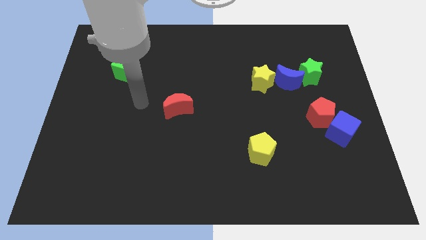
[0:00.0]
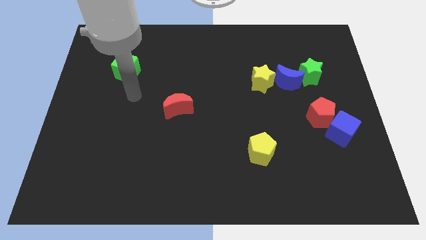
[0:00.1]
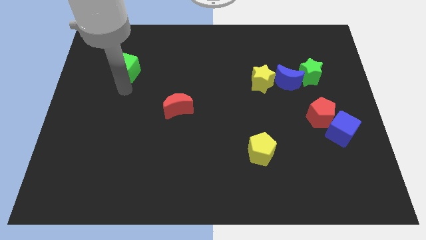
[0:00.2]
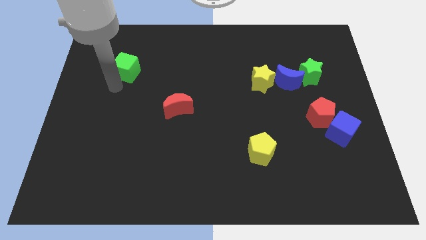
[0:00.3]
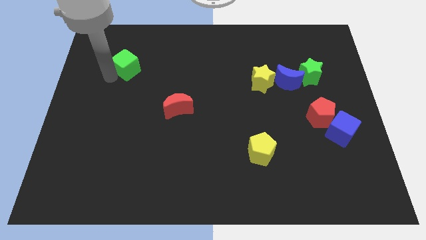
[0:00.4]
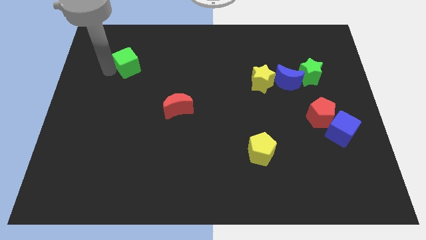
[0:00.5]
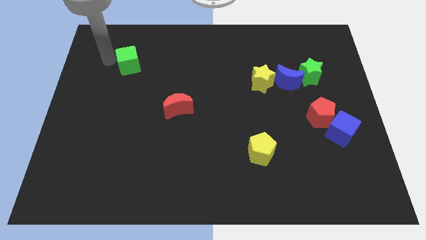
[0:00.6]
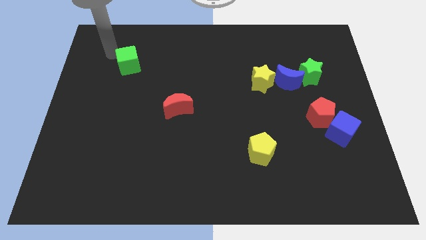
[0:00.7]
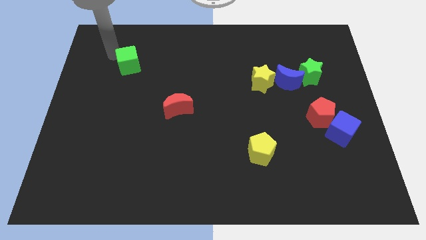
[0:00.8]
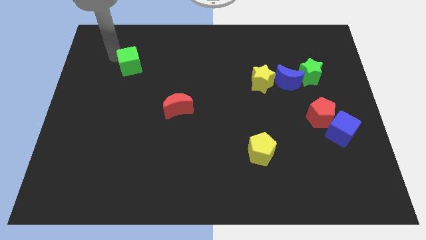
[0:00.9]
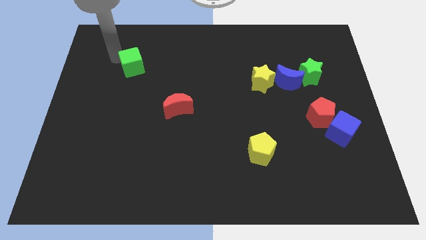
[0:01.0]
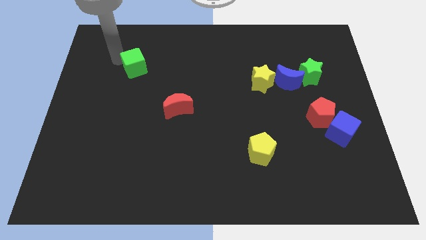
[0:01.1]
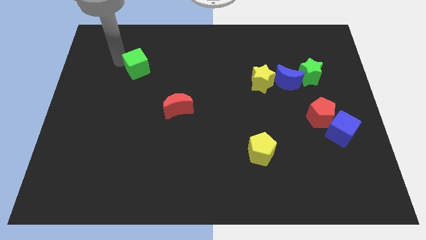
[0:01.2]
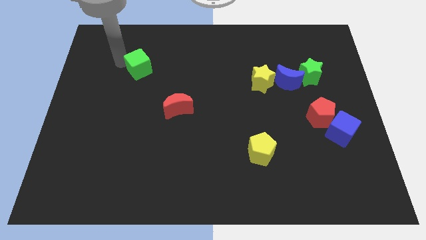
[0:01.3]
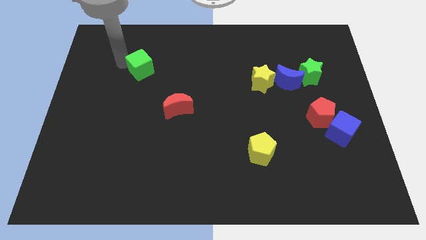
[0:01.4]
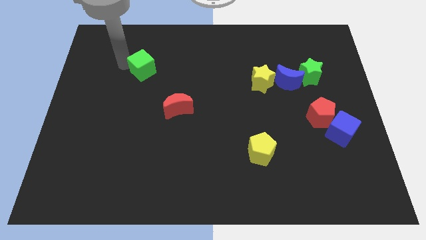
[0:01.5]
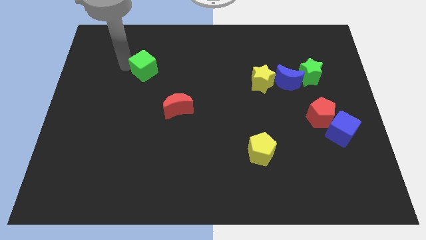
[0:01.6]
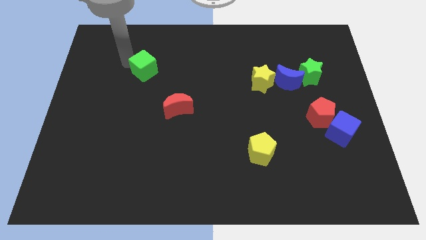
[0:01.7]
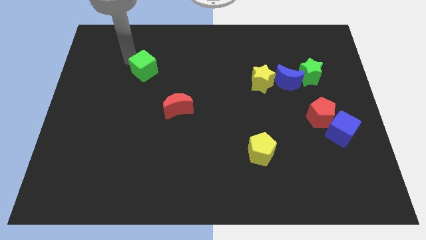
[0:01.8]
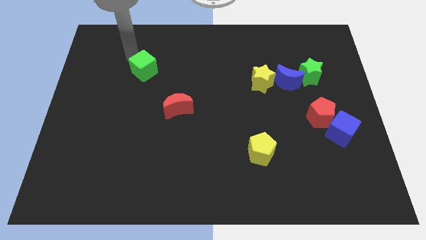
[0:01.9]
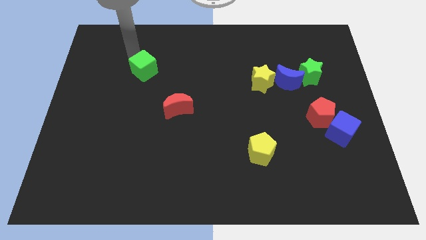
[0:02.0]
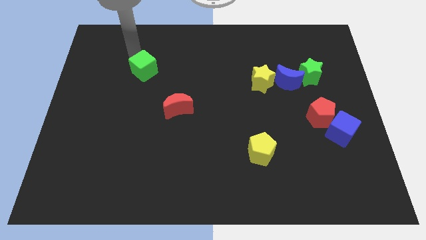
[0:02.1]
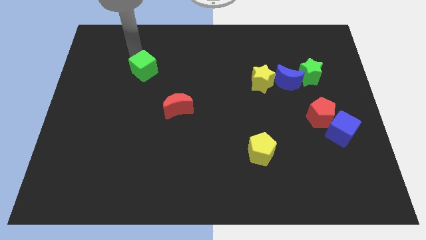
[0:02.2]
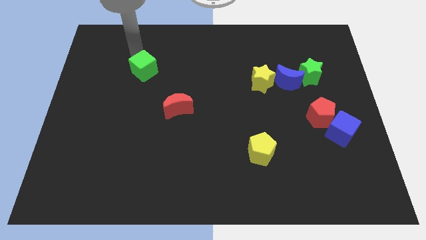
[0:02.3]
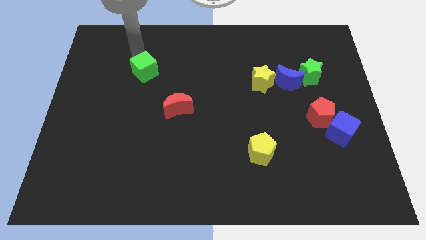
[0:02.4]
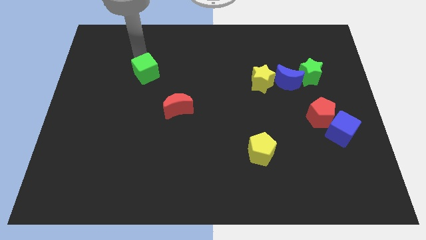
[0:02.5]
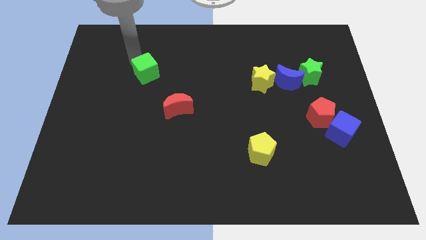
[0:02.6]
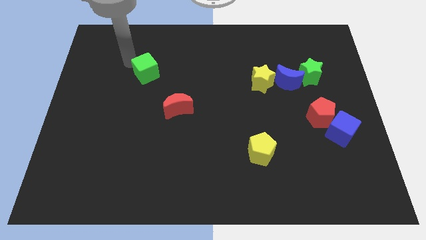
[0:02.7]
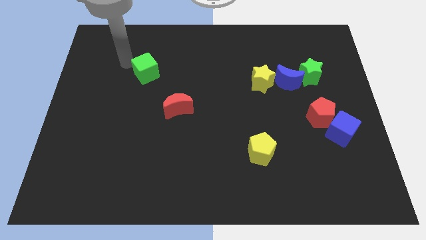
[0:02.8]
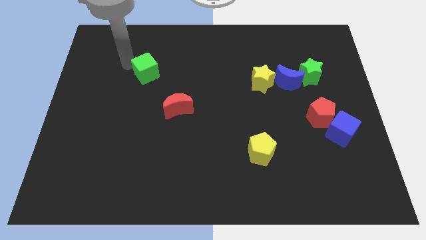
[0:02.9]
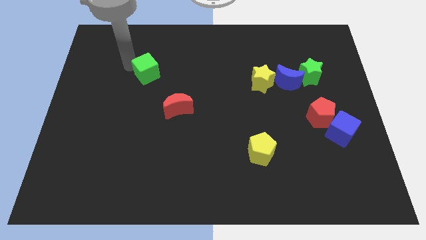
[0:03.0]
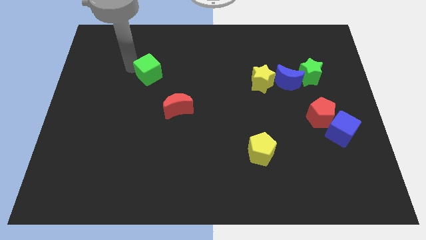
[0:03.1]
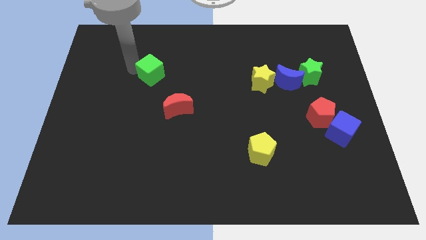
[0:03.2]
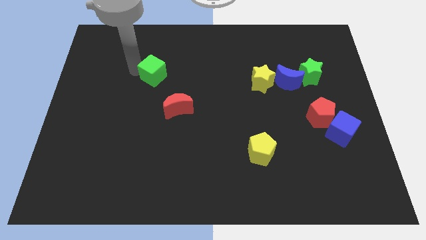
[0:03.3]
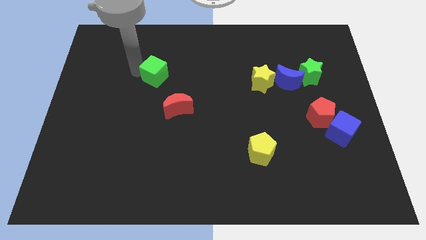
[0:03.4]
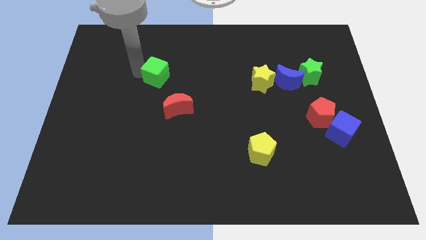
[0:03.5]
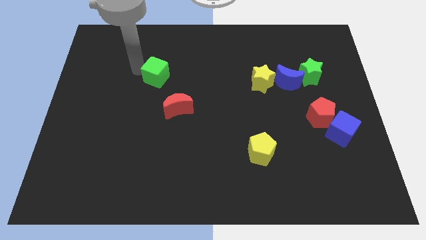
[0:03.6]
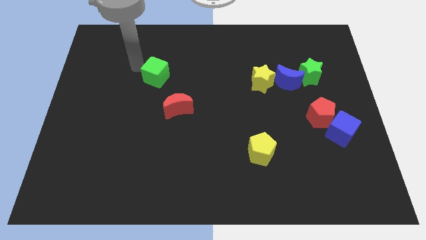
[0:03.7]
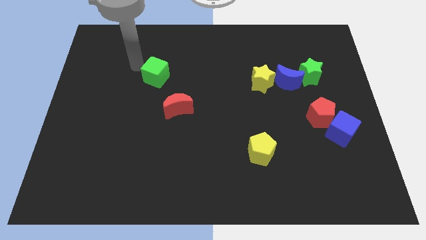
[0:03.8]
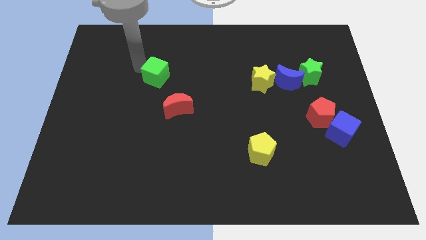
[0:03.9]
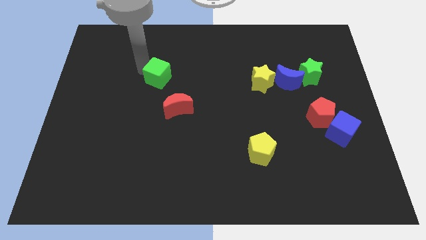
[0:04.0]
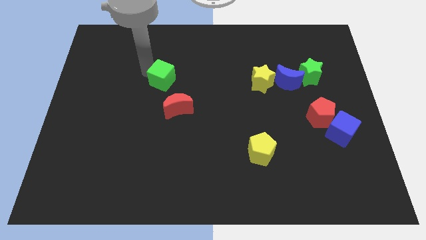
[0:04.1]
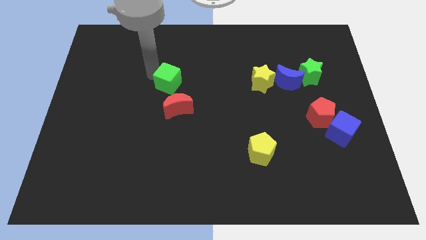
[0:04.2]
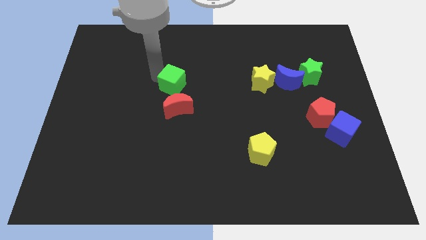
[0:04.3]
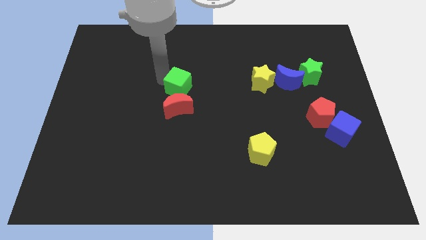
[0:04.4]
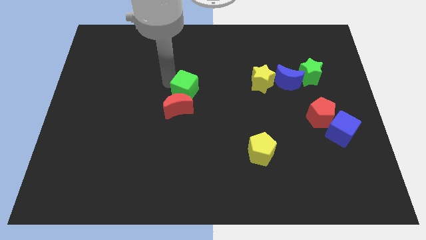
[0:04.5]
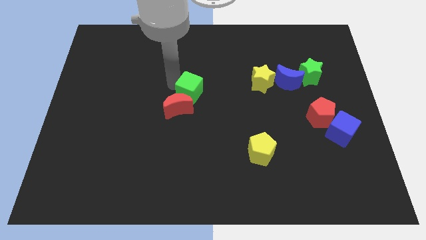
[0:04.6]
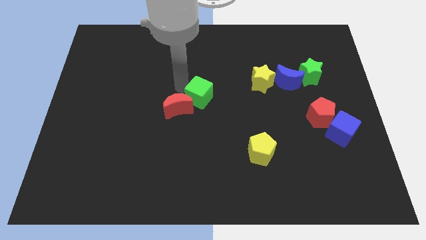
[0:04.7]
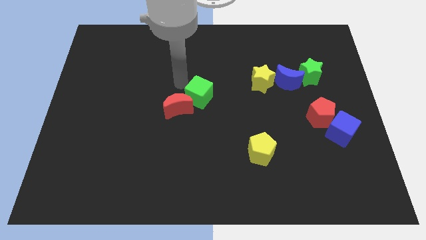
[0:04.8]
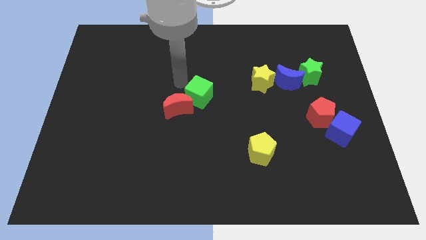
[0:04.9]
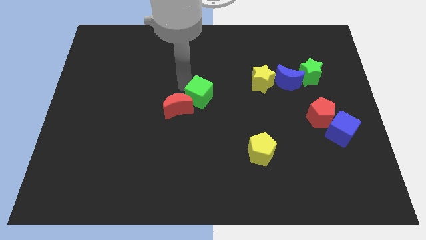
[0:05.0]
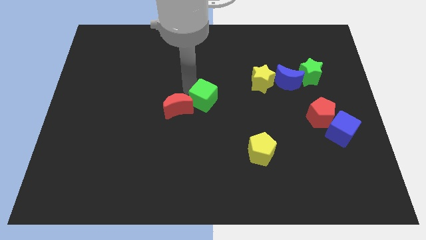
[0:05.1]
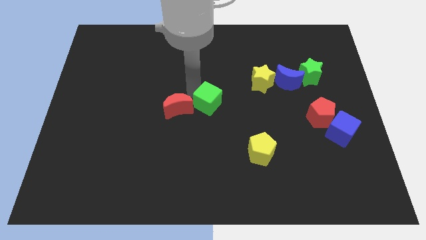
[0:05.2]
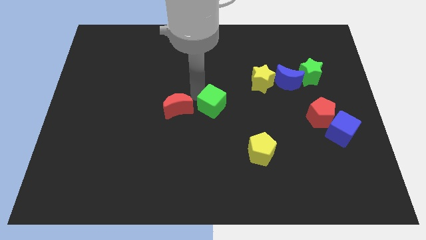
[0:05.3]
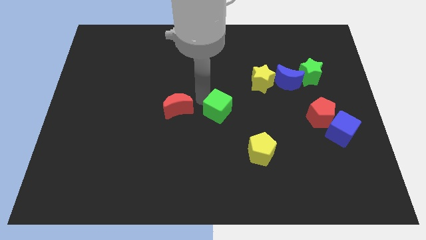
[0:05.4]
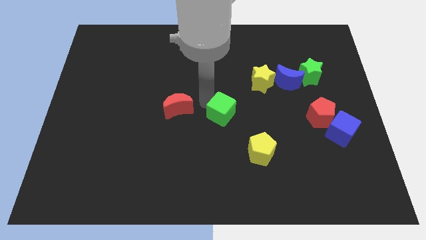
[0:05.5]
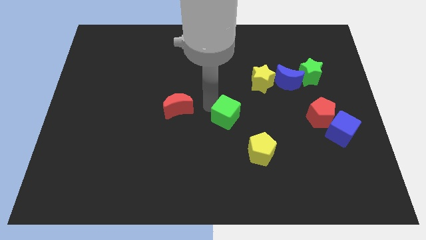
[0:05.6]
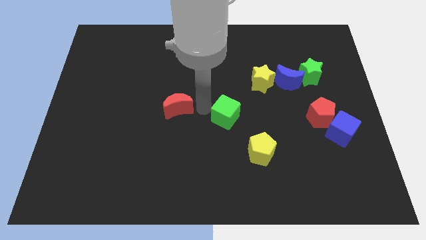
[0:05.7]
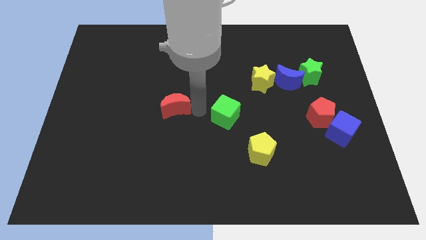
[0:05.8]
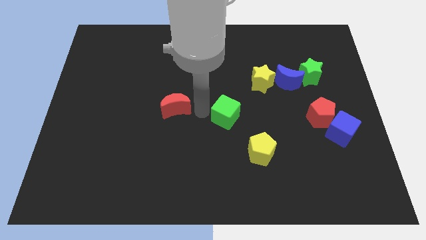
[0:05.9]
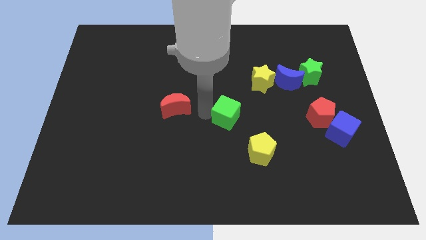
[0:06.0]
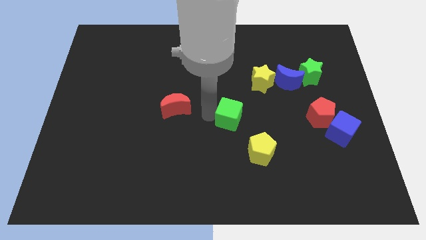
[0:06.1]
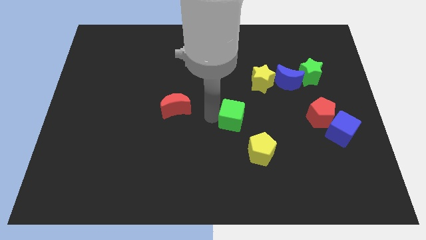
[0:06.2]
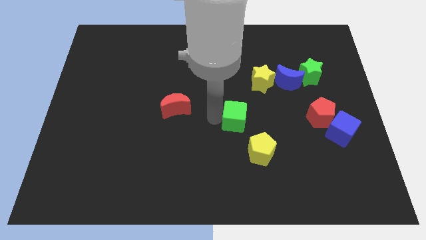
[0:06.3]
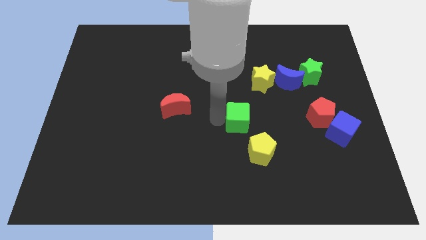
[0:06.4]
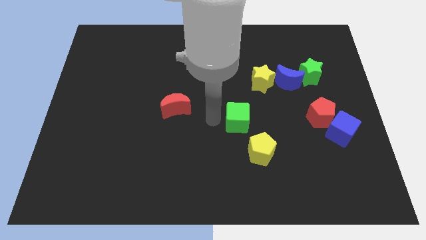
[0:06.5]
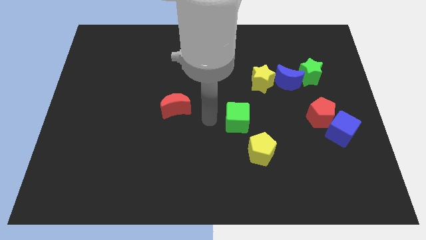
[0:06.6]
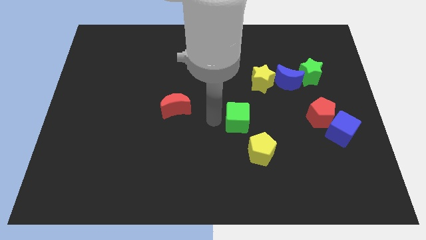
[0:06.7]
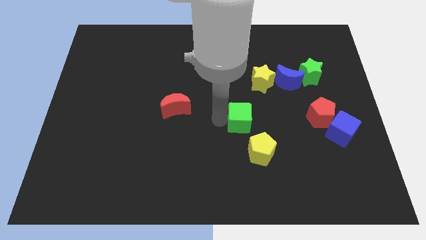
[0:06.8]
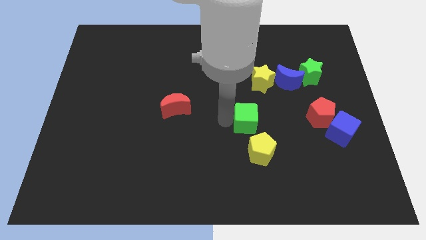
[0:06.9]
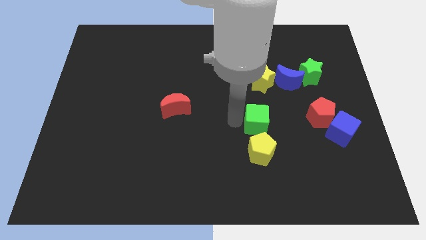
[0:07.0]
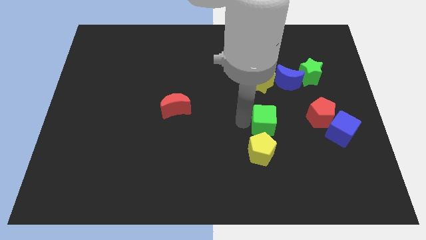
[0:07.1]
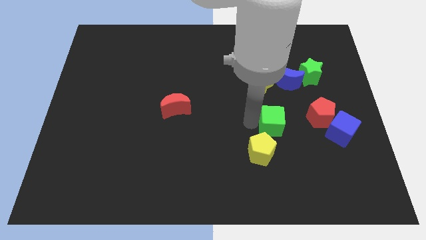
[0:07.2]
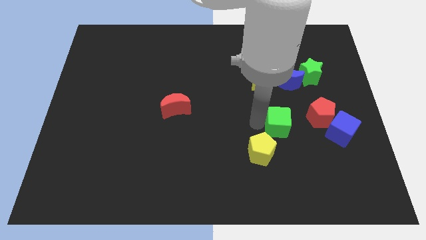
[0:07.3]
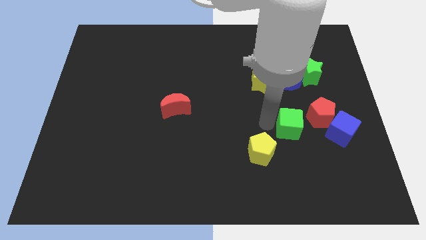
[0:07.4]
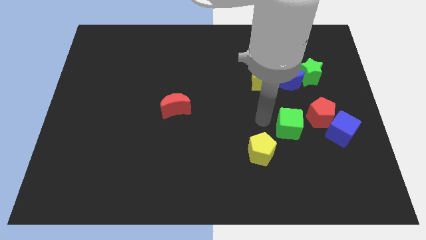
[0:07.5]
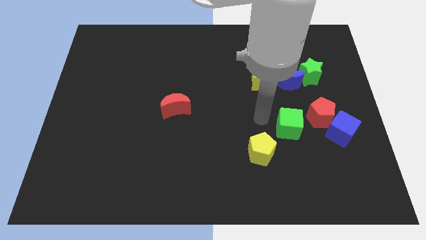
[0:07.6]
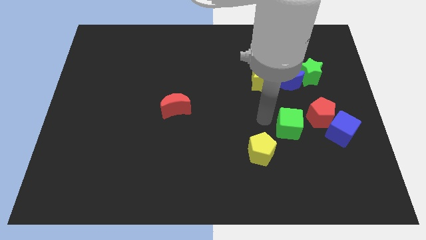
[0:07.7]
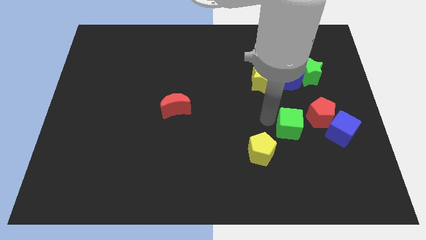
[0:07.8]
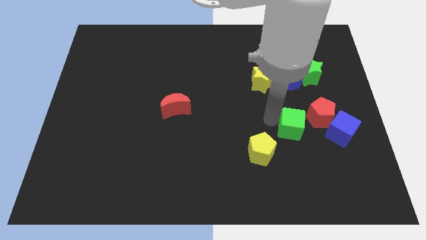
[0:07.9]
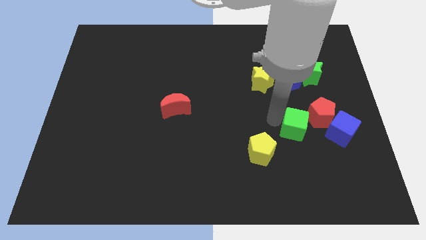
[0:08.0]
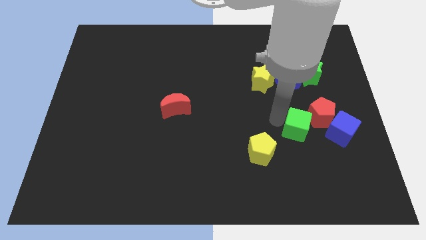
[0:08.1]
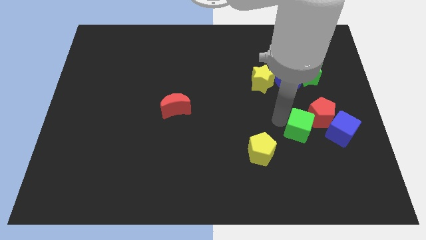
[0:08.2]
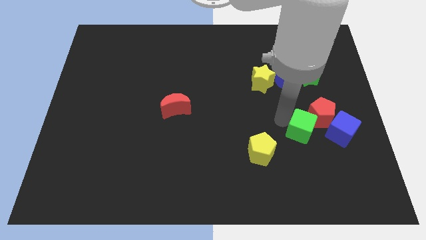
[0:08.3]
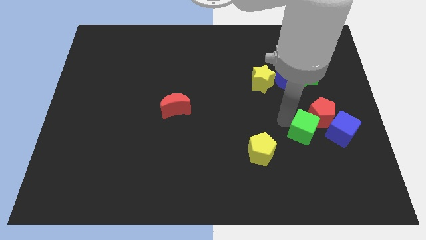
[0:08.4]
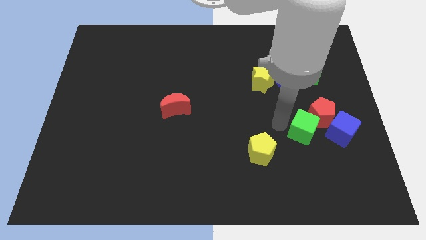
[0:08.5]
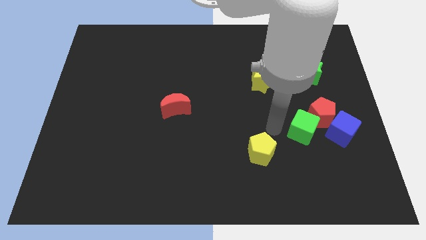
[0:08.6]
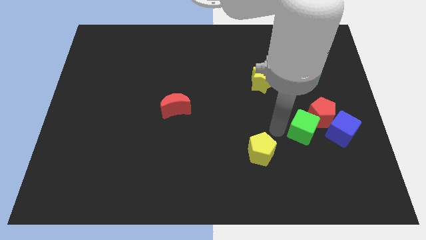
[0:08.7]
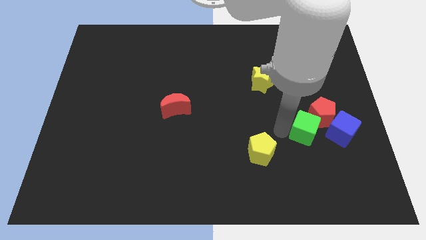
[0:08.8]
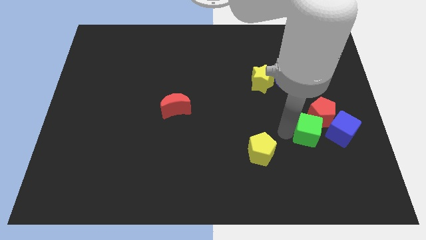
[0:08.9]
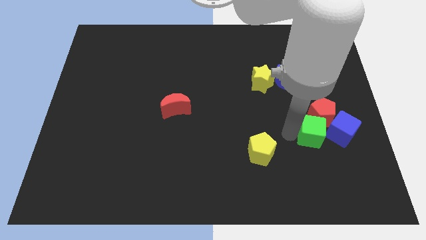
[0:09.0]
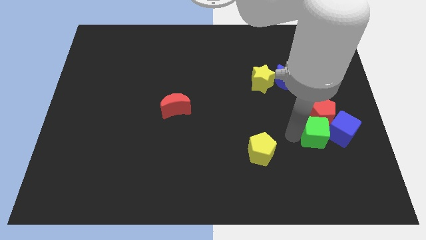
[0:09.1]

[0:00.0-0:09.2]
move the green cube next to the blue cube
